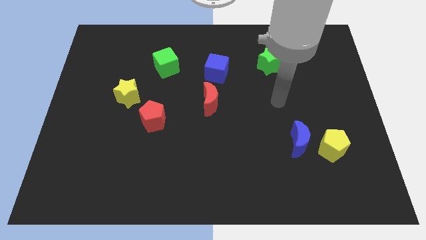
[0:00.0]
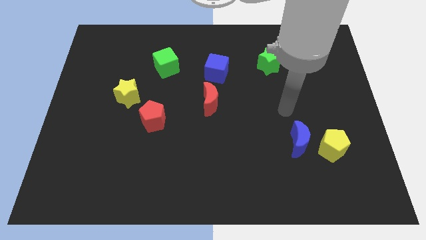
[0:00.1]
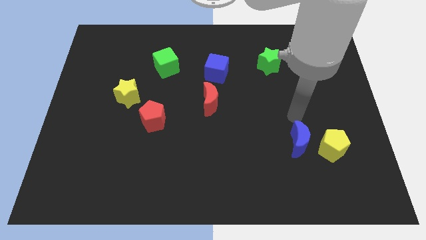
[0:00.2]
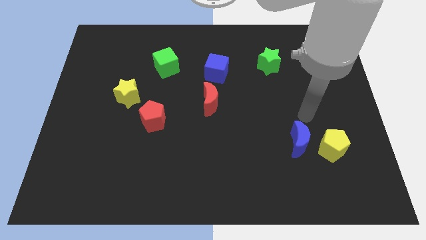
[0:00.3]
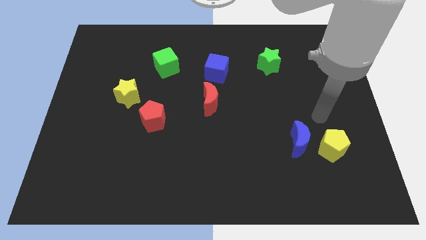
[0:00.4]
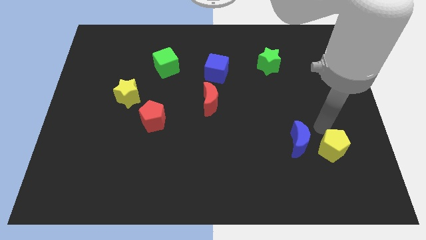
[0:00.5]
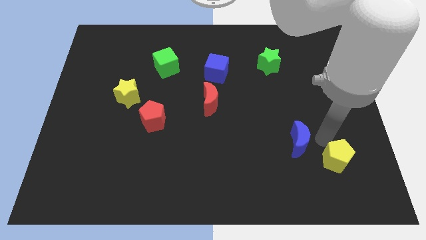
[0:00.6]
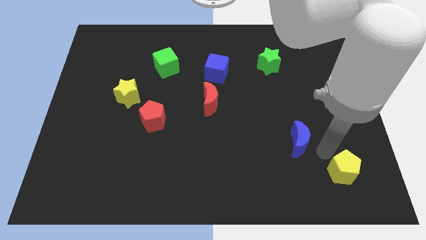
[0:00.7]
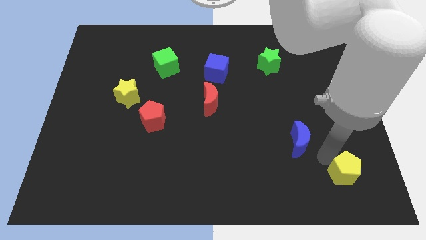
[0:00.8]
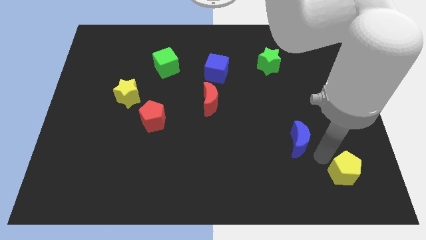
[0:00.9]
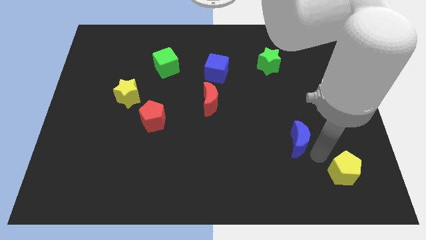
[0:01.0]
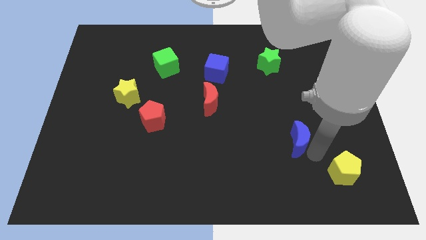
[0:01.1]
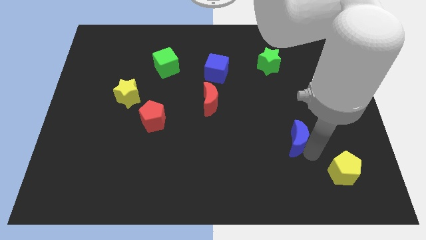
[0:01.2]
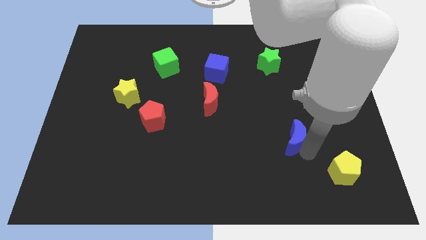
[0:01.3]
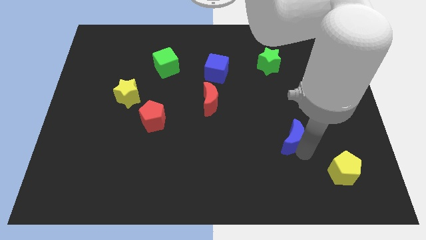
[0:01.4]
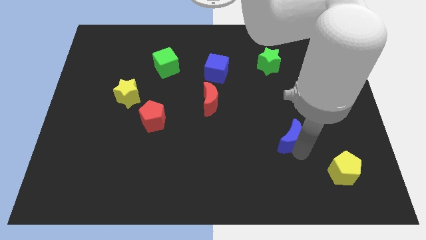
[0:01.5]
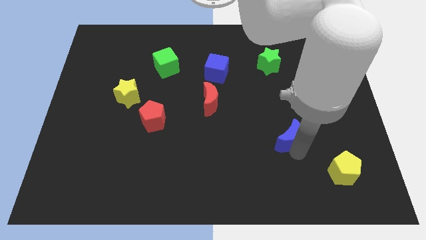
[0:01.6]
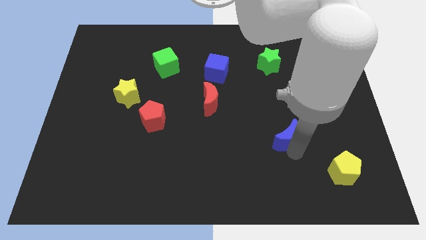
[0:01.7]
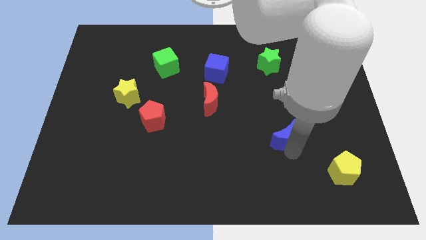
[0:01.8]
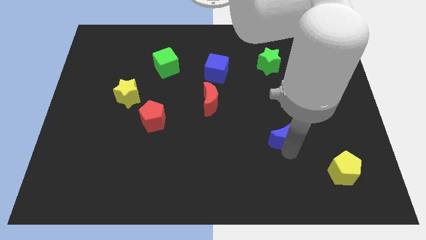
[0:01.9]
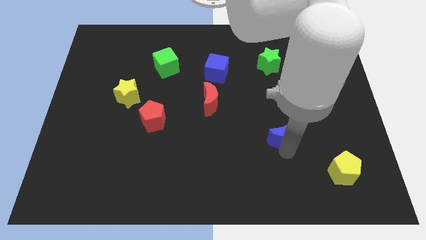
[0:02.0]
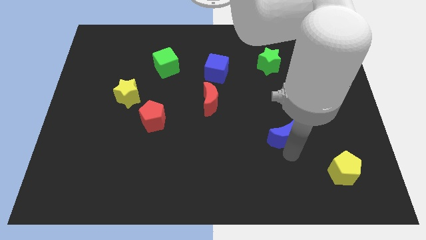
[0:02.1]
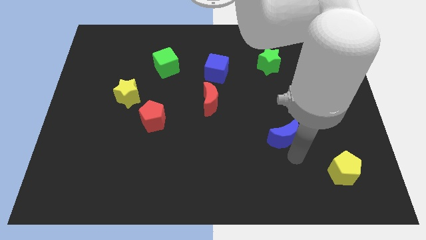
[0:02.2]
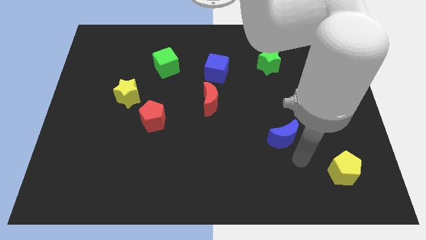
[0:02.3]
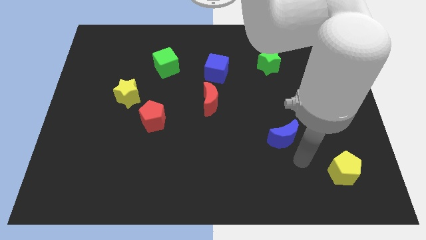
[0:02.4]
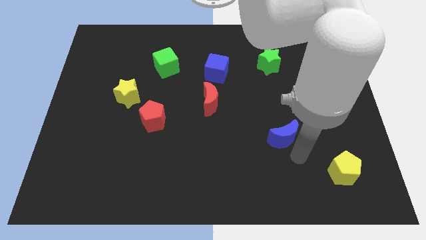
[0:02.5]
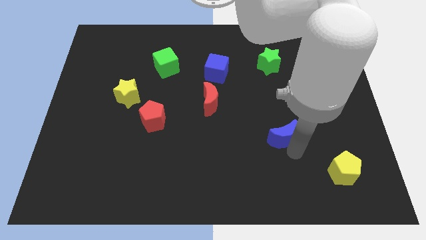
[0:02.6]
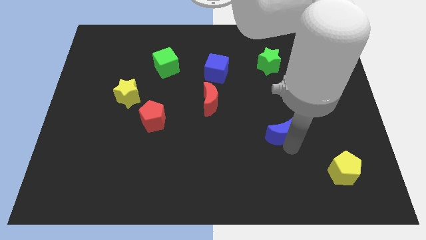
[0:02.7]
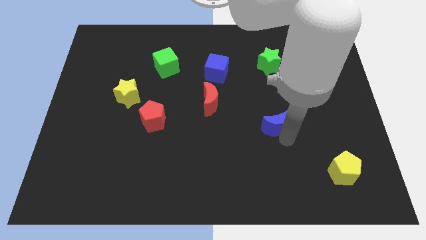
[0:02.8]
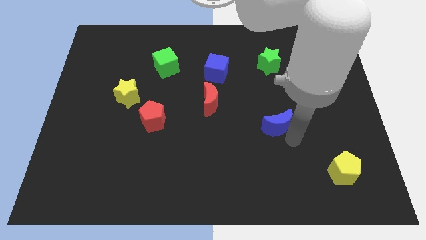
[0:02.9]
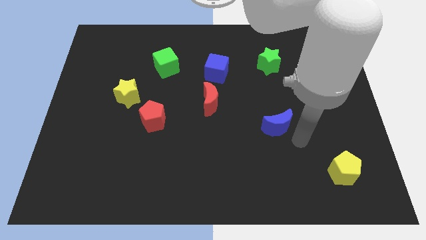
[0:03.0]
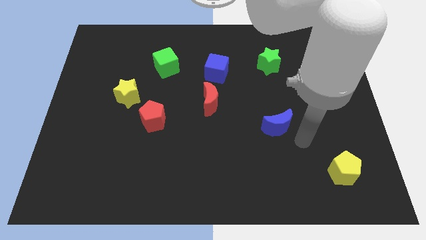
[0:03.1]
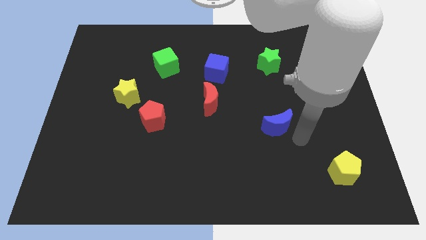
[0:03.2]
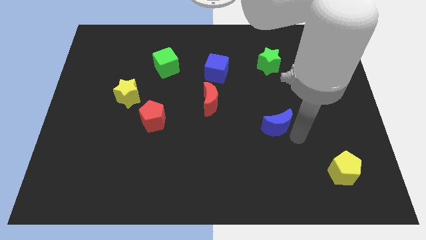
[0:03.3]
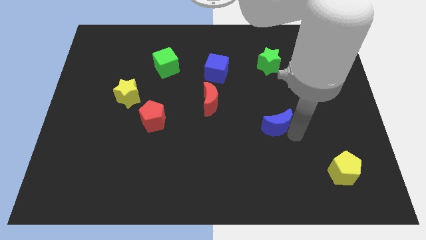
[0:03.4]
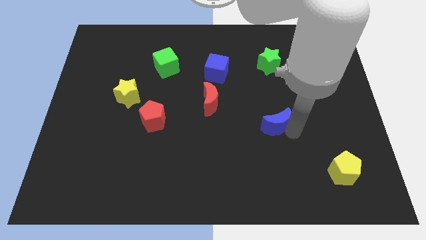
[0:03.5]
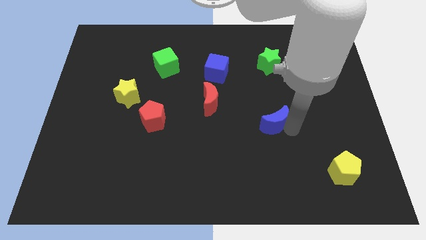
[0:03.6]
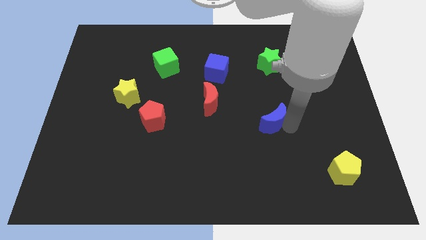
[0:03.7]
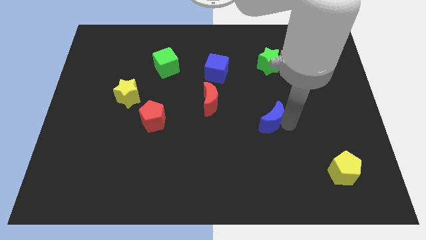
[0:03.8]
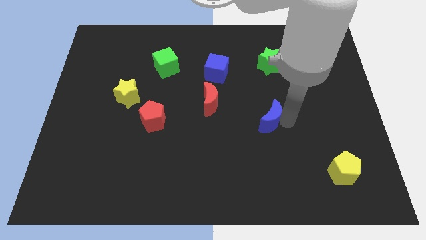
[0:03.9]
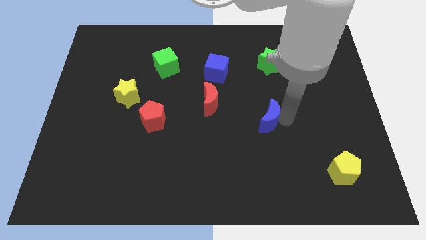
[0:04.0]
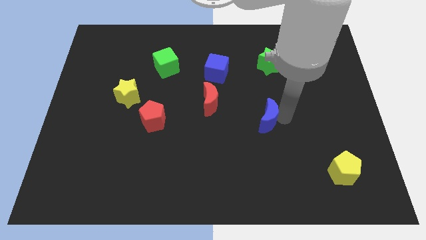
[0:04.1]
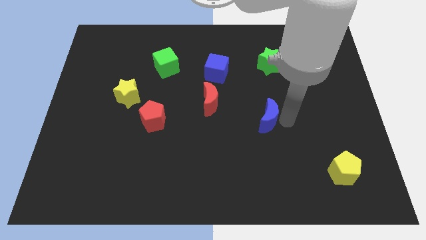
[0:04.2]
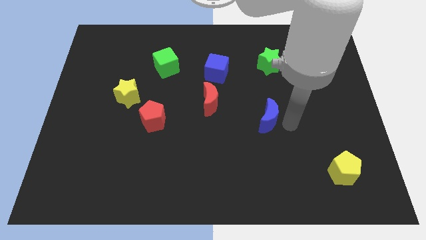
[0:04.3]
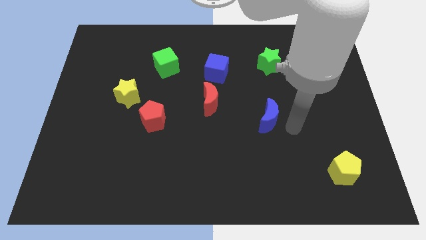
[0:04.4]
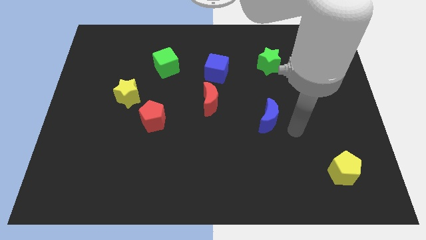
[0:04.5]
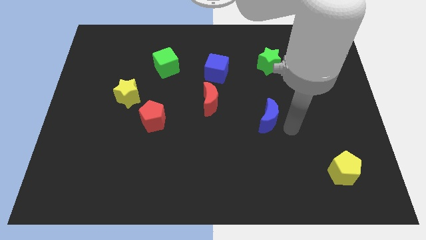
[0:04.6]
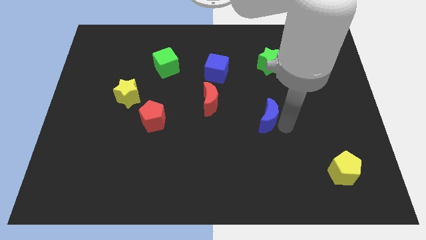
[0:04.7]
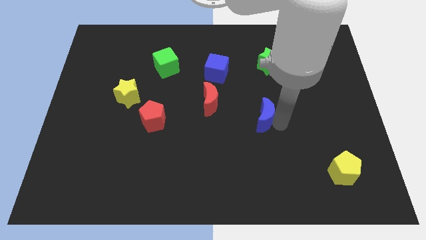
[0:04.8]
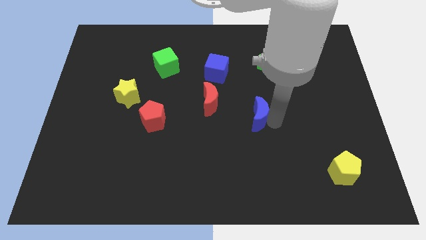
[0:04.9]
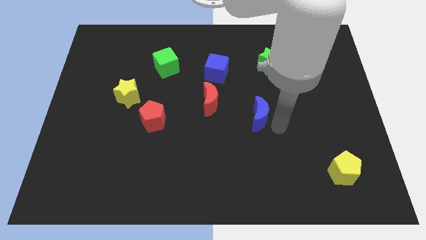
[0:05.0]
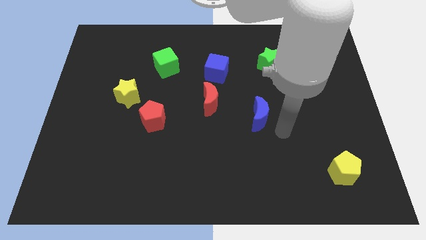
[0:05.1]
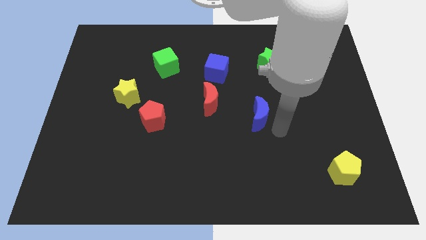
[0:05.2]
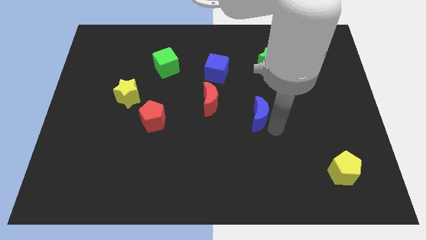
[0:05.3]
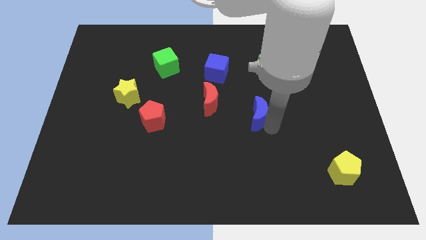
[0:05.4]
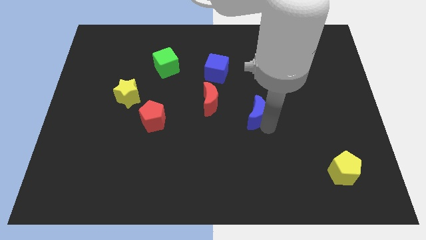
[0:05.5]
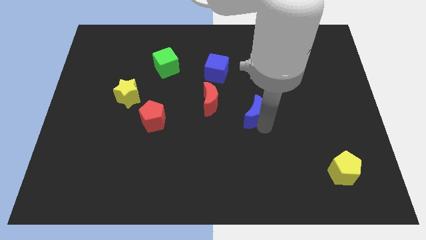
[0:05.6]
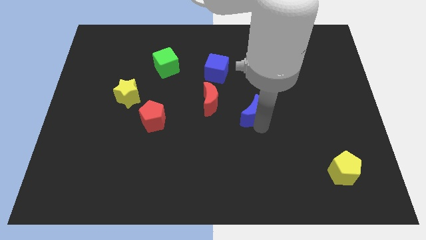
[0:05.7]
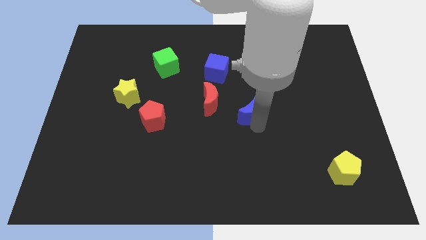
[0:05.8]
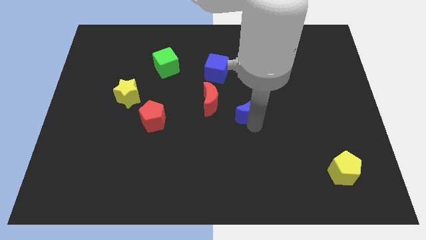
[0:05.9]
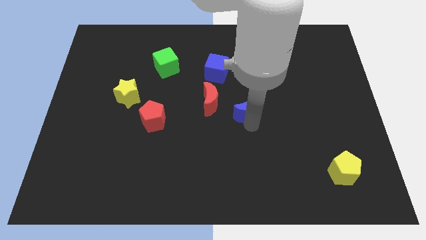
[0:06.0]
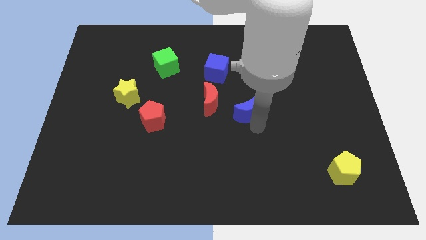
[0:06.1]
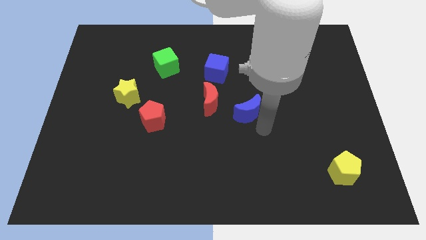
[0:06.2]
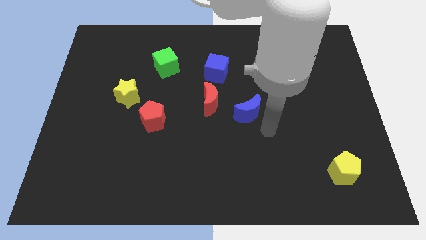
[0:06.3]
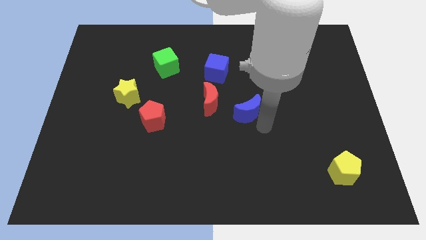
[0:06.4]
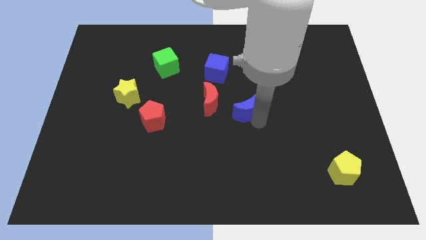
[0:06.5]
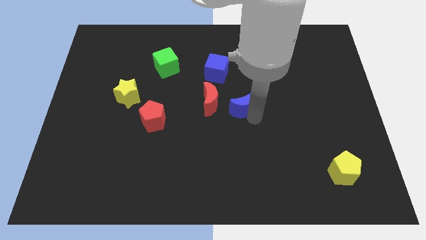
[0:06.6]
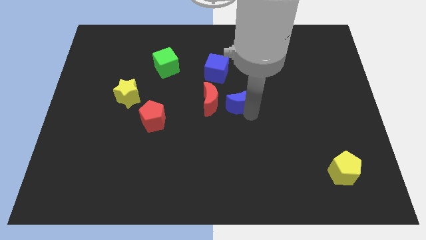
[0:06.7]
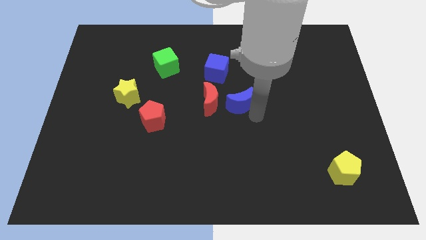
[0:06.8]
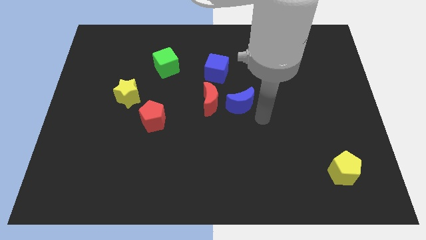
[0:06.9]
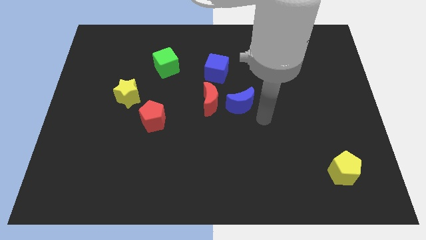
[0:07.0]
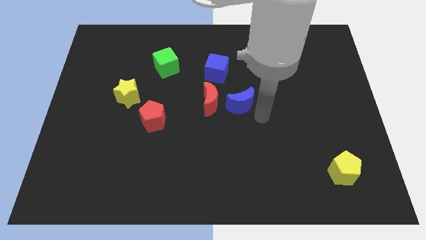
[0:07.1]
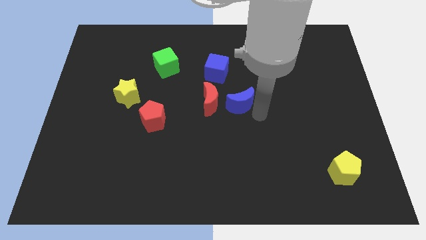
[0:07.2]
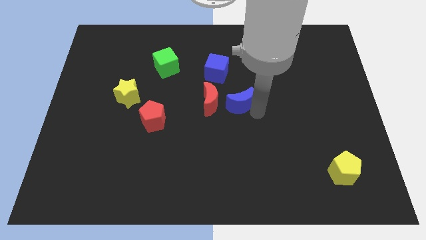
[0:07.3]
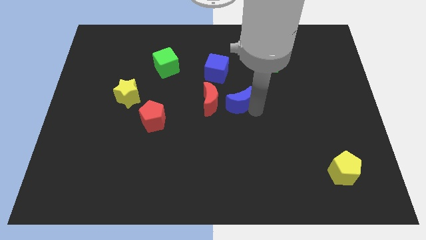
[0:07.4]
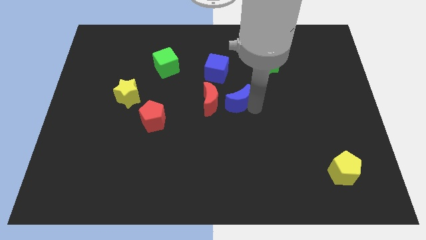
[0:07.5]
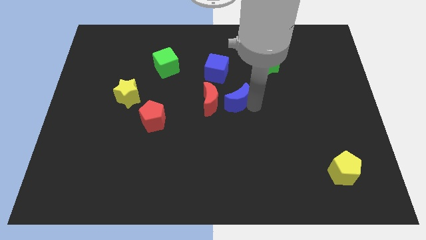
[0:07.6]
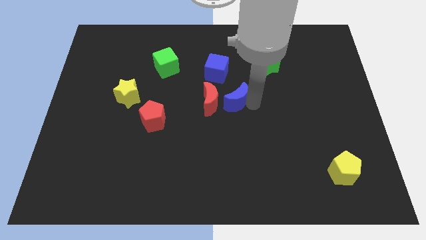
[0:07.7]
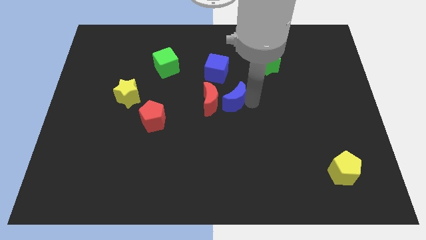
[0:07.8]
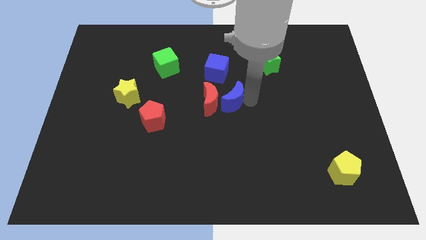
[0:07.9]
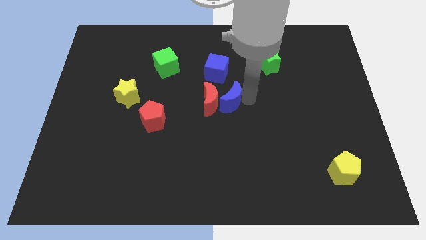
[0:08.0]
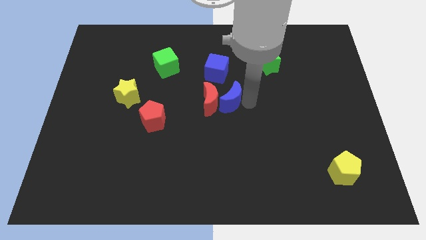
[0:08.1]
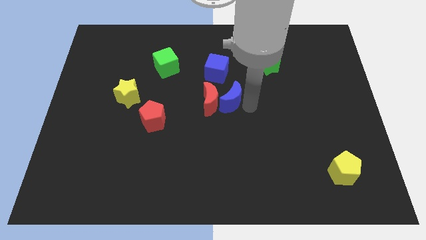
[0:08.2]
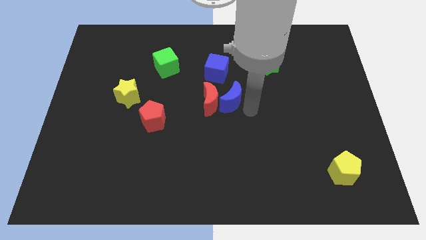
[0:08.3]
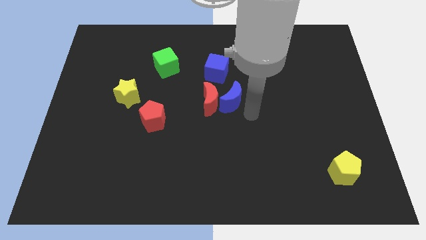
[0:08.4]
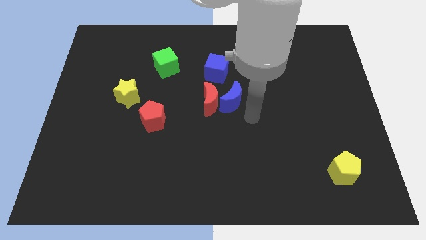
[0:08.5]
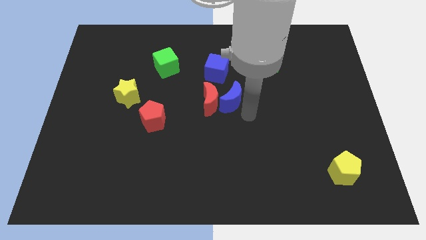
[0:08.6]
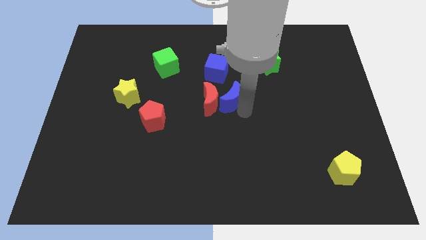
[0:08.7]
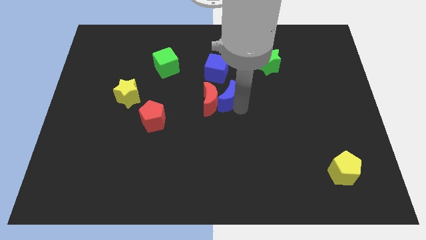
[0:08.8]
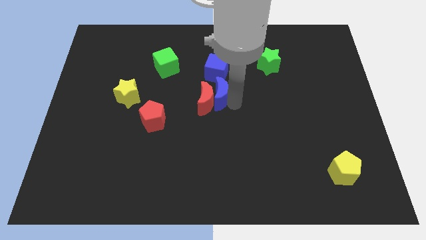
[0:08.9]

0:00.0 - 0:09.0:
push the blue moon diagonally up and left
